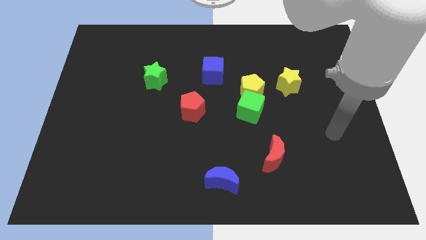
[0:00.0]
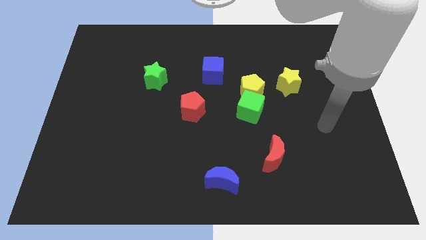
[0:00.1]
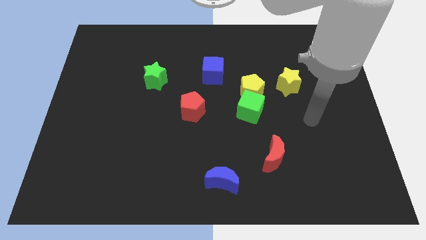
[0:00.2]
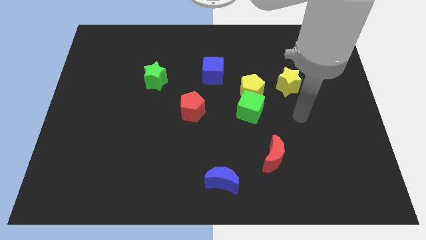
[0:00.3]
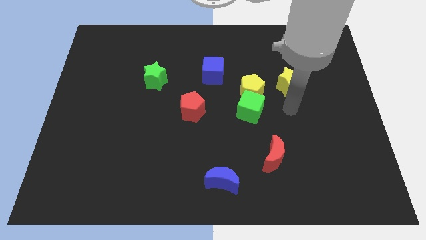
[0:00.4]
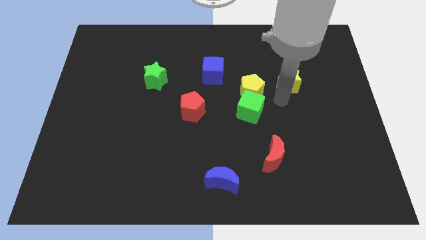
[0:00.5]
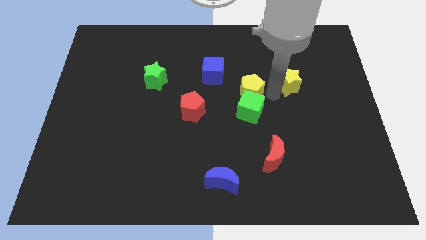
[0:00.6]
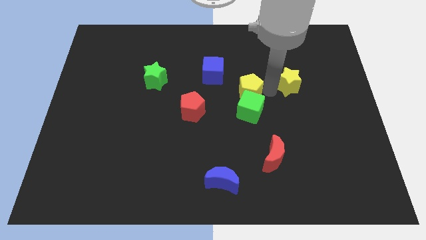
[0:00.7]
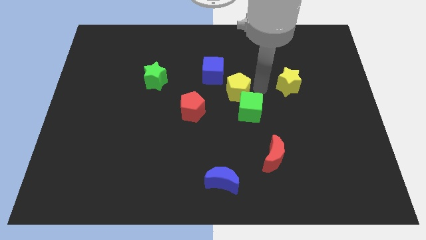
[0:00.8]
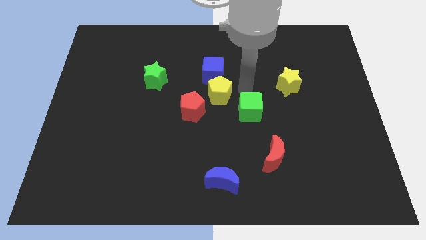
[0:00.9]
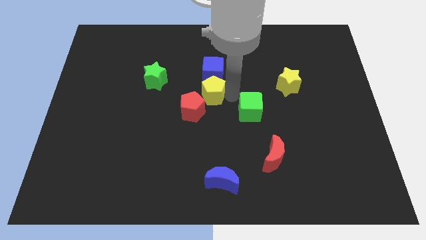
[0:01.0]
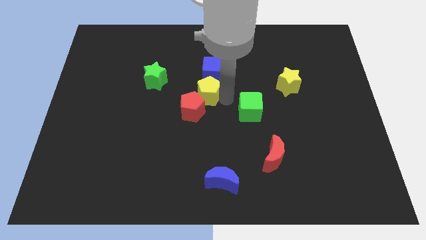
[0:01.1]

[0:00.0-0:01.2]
pull the green cube apart from the yellow pentagon

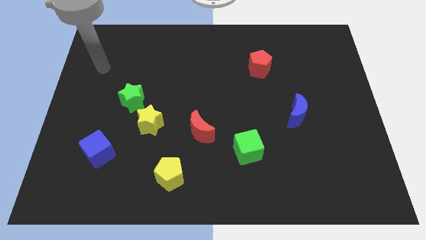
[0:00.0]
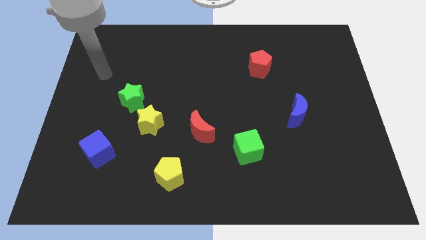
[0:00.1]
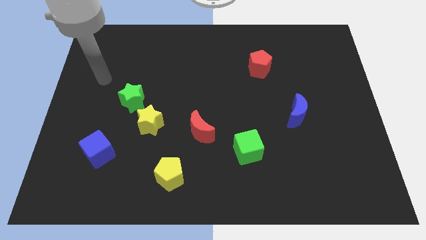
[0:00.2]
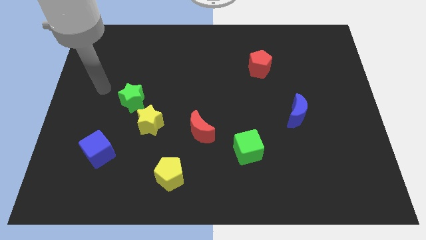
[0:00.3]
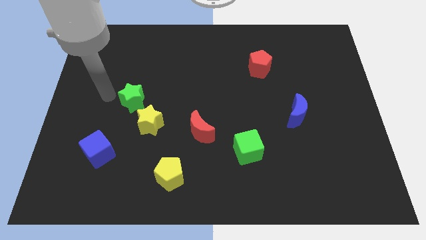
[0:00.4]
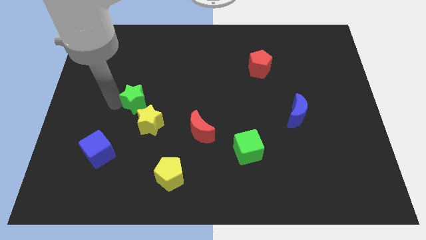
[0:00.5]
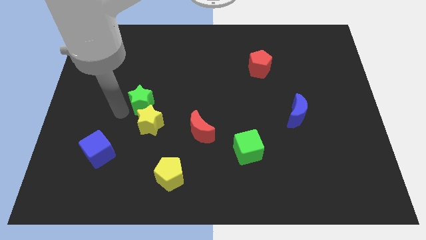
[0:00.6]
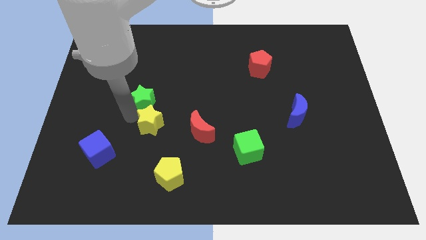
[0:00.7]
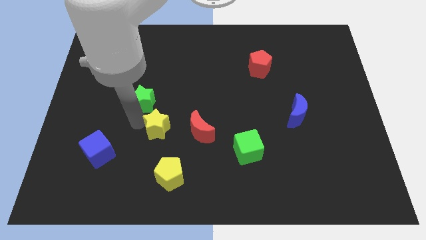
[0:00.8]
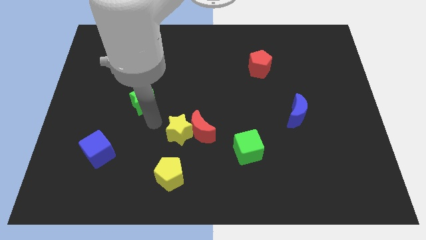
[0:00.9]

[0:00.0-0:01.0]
separate the green star from the yellow star

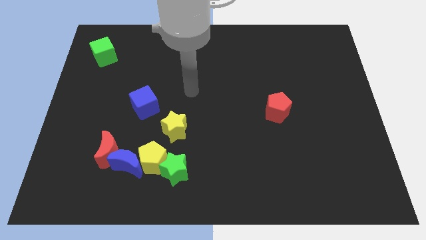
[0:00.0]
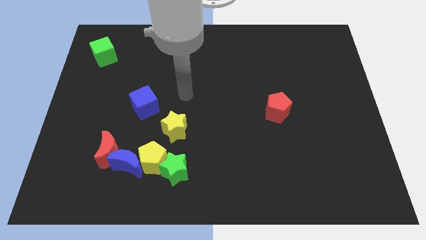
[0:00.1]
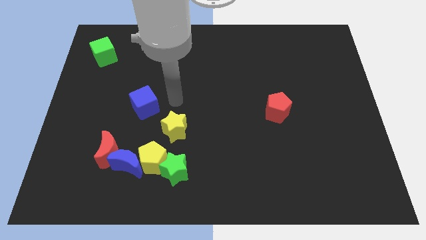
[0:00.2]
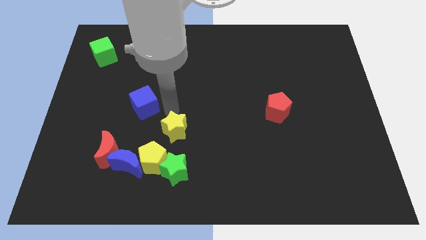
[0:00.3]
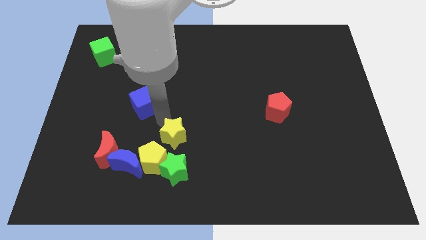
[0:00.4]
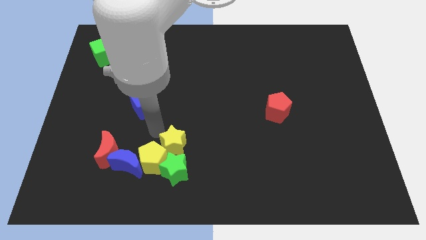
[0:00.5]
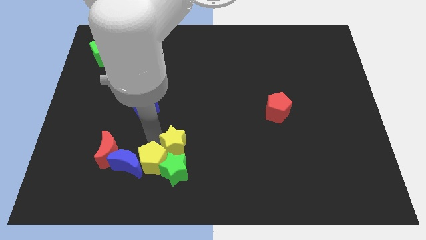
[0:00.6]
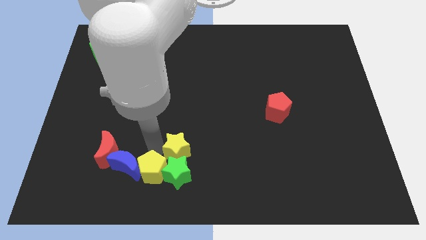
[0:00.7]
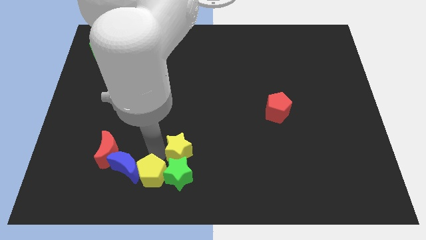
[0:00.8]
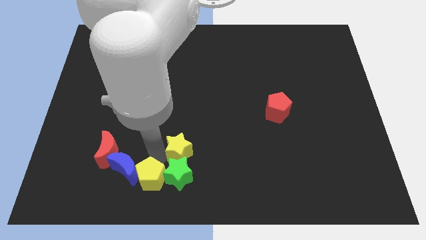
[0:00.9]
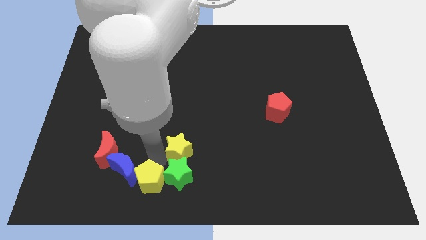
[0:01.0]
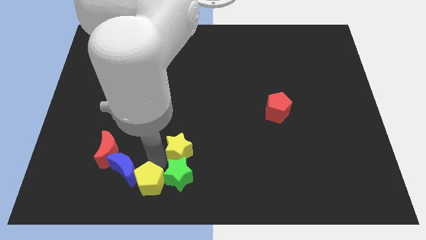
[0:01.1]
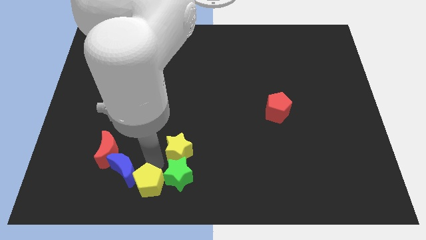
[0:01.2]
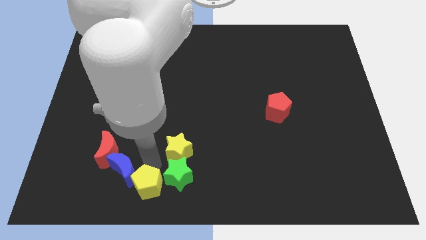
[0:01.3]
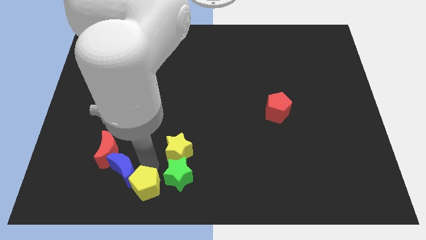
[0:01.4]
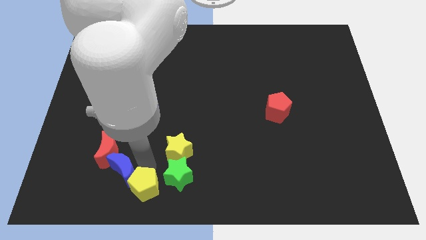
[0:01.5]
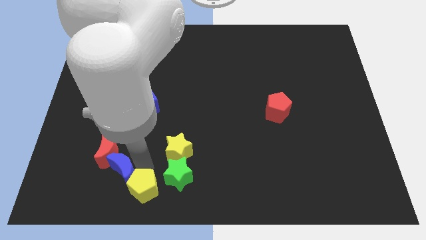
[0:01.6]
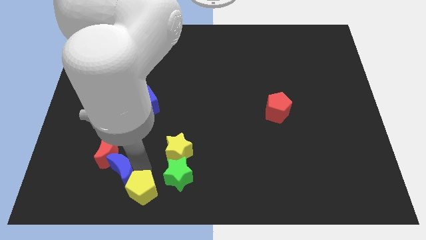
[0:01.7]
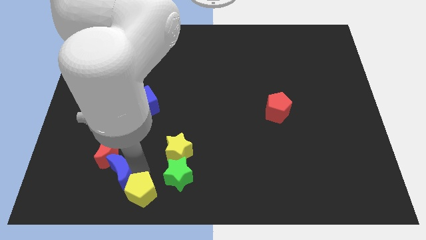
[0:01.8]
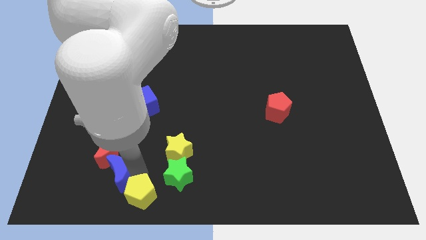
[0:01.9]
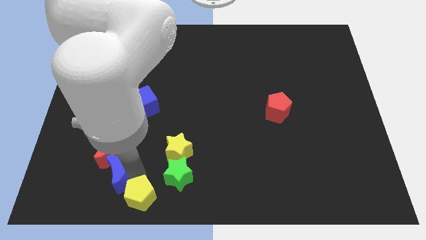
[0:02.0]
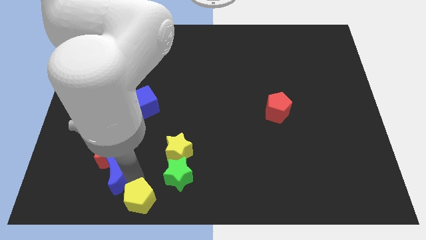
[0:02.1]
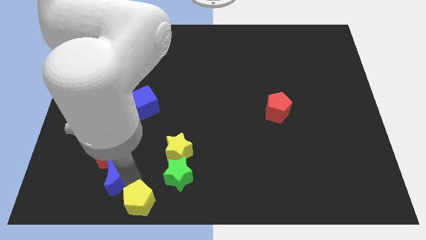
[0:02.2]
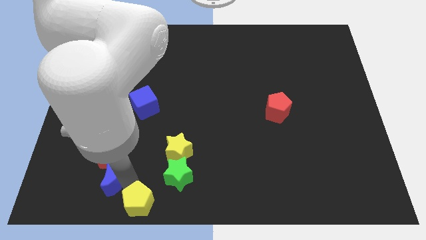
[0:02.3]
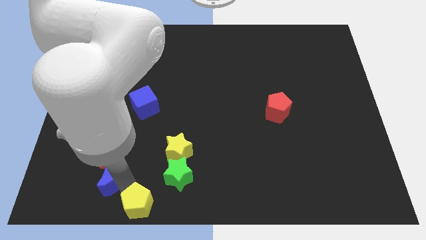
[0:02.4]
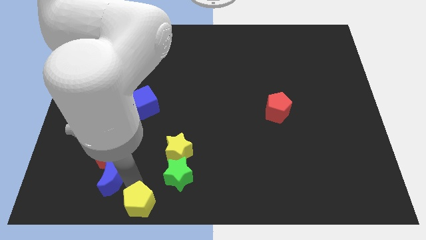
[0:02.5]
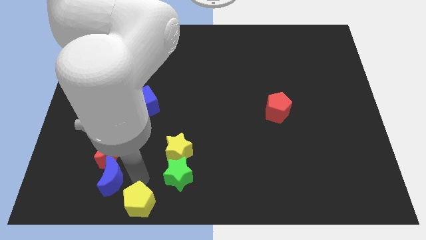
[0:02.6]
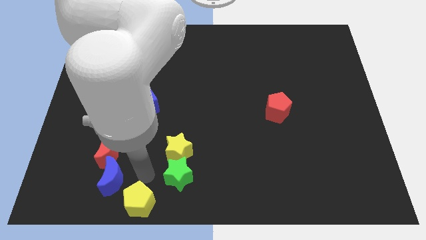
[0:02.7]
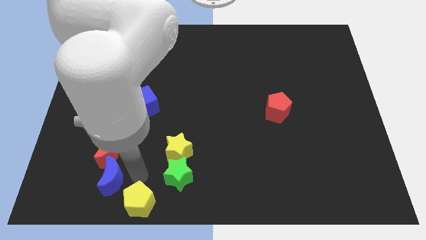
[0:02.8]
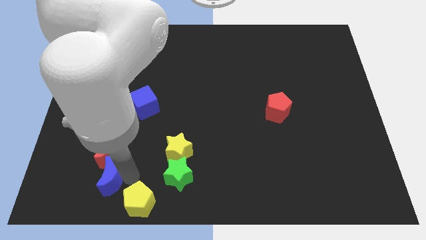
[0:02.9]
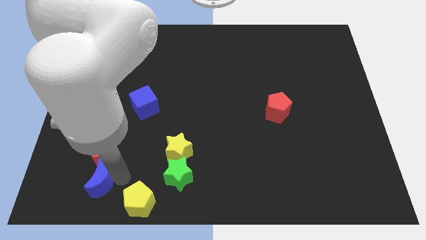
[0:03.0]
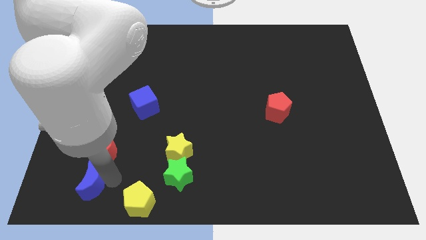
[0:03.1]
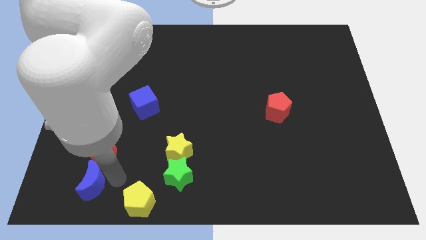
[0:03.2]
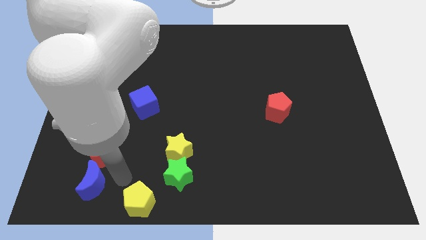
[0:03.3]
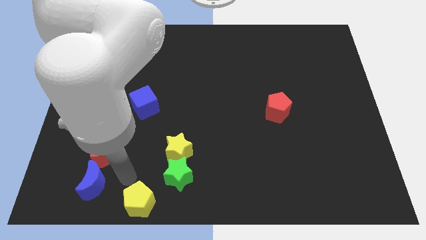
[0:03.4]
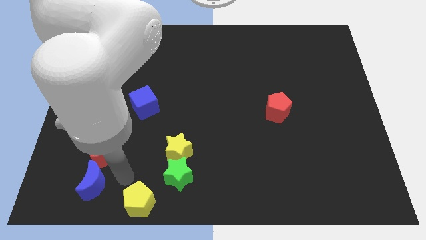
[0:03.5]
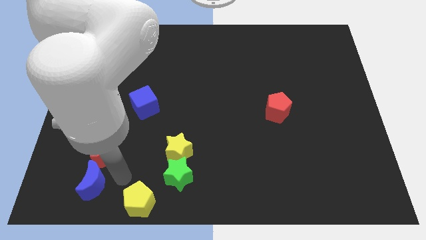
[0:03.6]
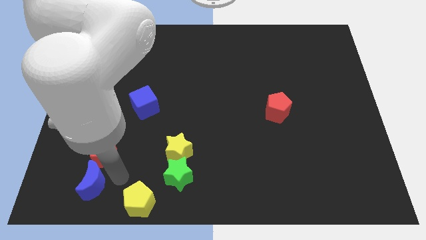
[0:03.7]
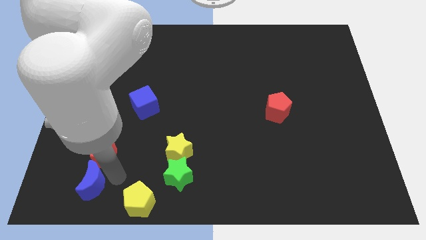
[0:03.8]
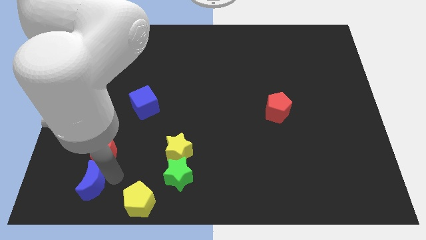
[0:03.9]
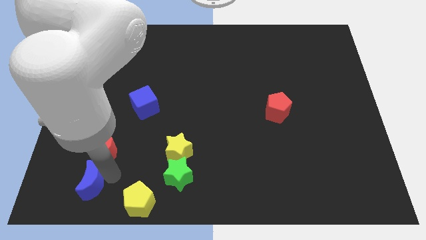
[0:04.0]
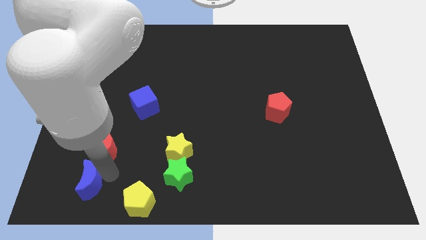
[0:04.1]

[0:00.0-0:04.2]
move the blue moon away from the yellow pentagon, red moon, and green star

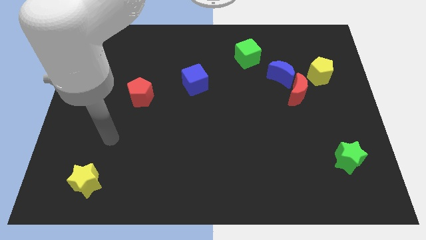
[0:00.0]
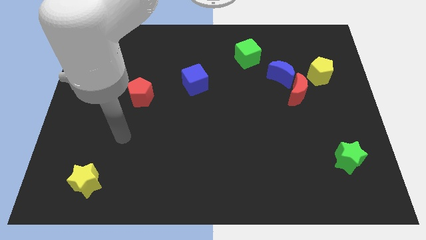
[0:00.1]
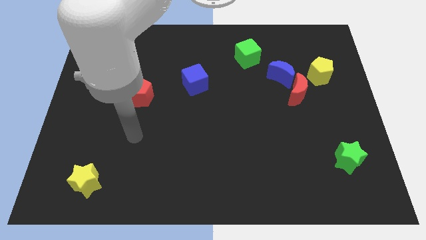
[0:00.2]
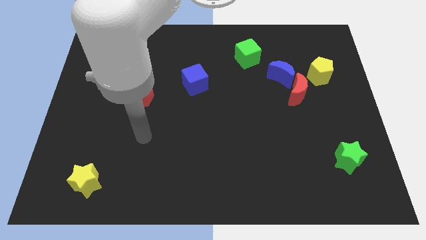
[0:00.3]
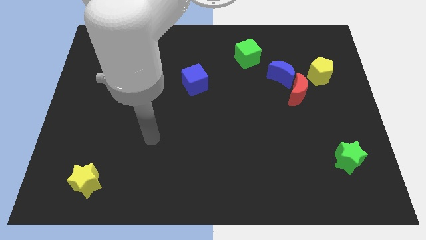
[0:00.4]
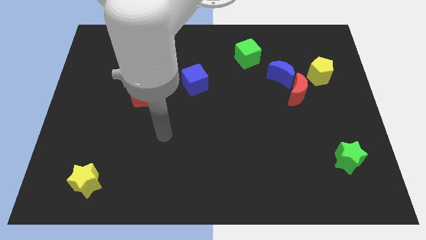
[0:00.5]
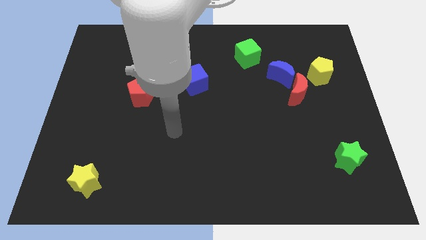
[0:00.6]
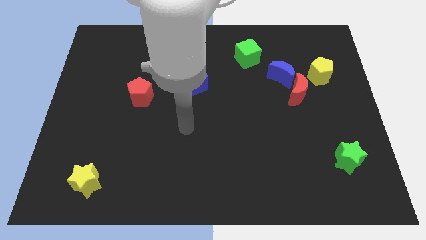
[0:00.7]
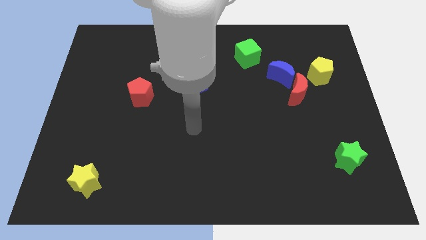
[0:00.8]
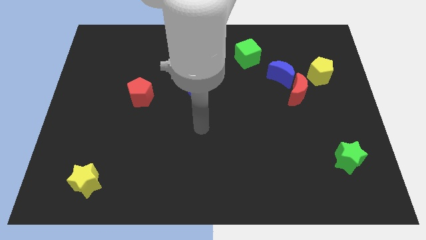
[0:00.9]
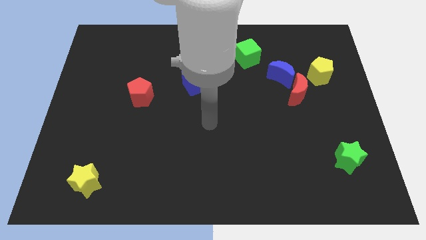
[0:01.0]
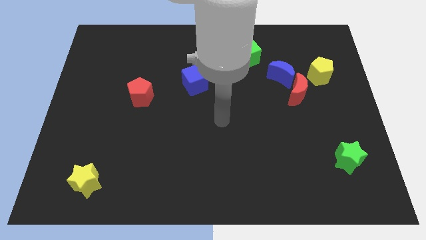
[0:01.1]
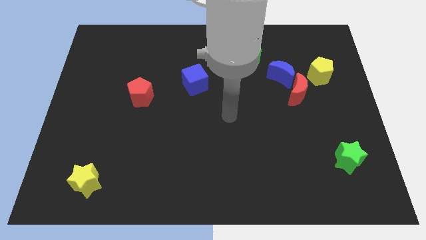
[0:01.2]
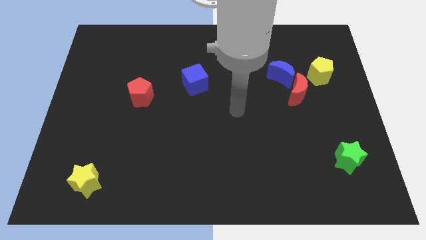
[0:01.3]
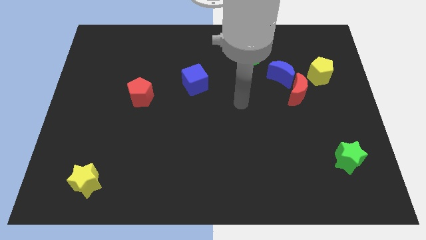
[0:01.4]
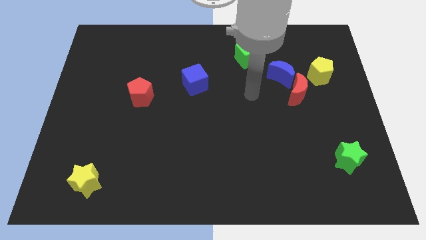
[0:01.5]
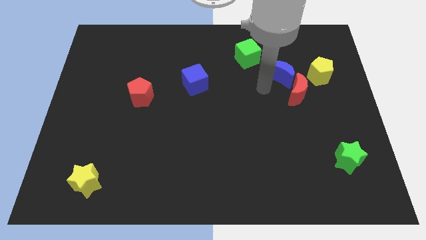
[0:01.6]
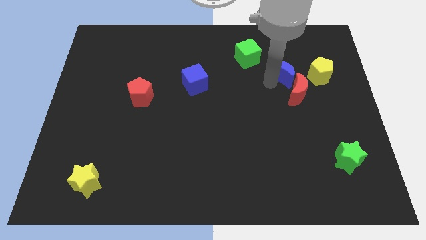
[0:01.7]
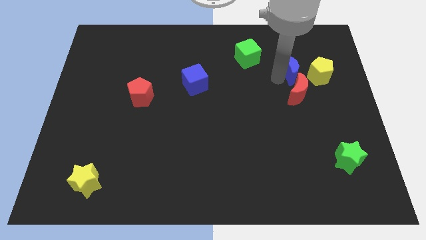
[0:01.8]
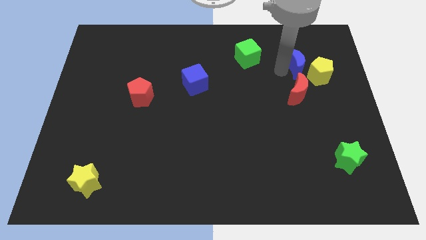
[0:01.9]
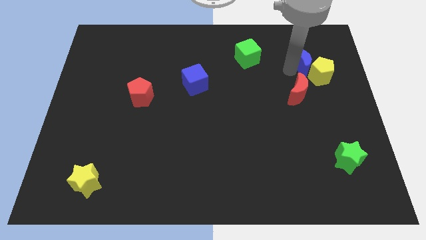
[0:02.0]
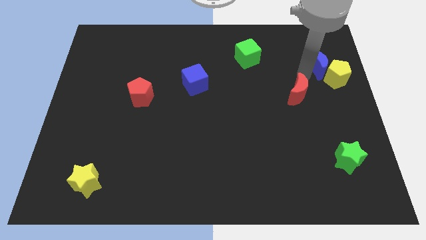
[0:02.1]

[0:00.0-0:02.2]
pull the red moon apart from the blue moon and yellow pentagon

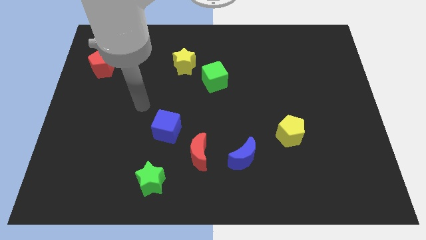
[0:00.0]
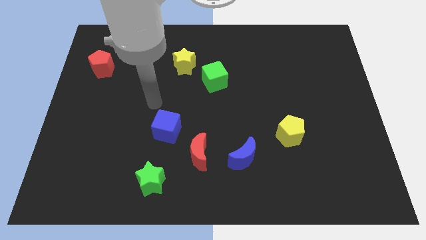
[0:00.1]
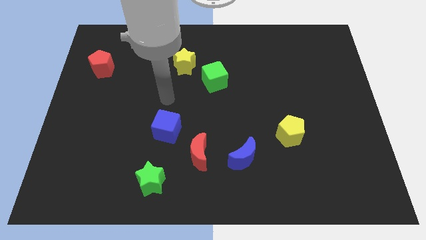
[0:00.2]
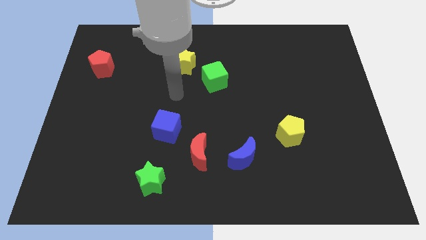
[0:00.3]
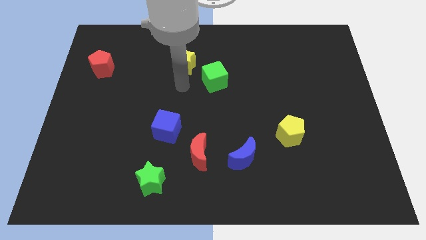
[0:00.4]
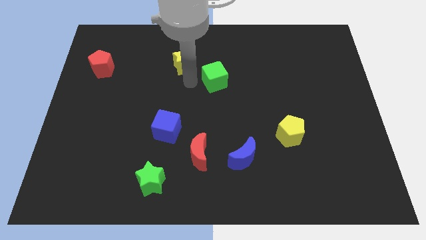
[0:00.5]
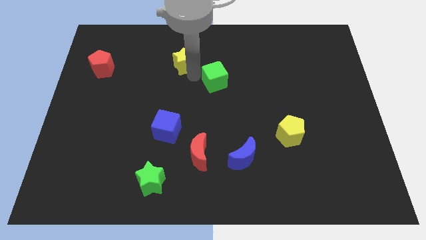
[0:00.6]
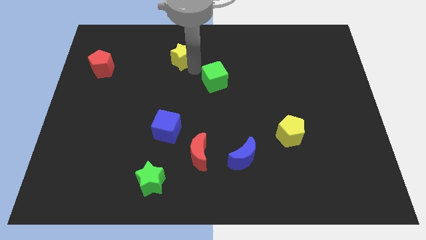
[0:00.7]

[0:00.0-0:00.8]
pull the green cube apart from the yellow star
